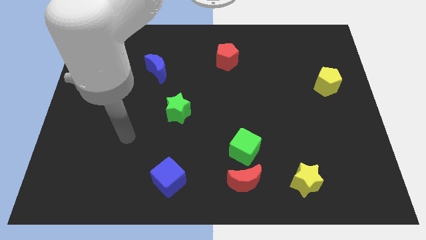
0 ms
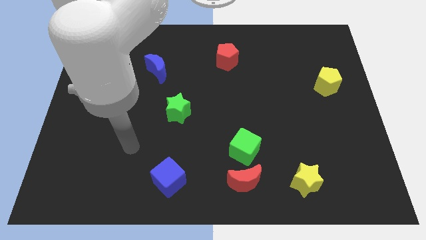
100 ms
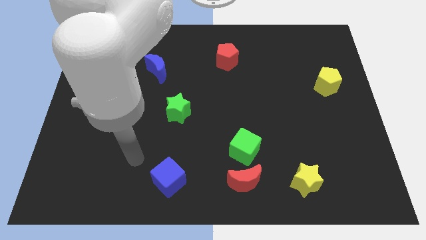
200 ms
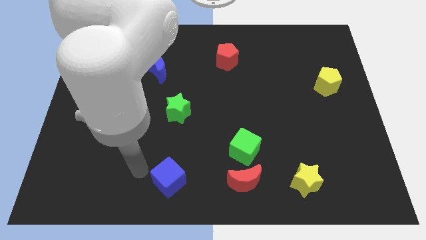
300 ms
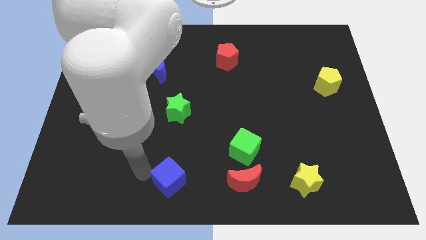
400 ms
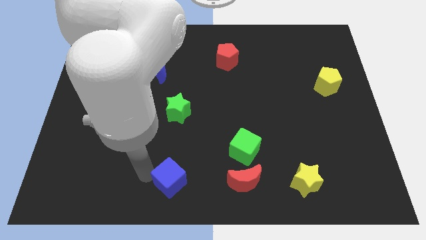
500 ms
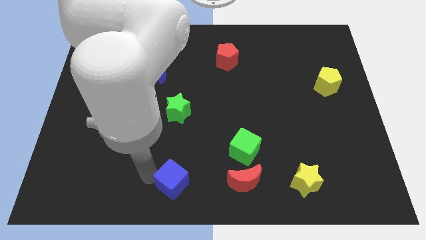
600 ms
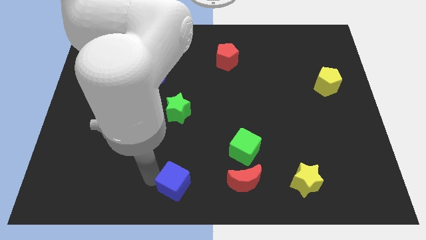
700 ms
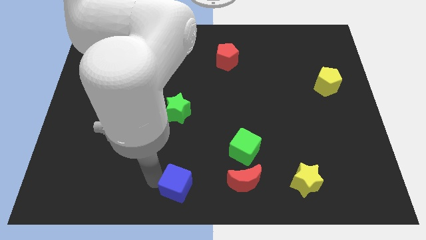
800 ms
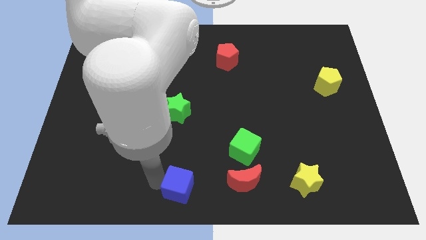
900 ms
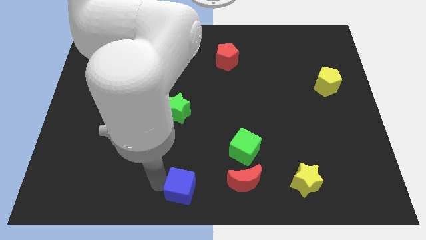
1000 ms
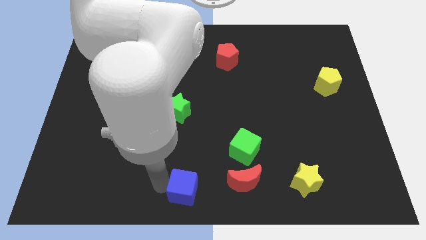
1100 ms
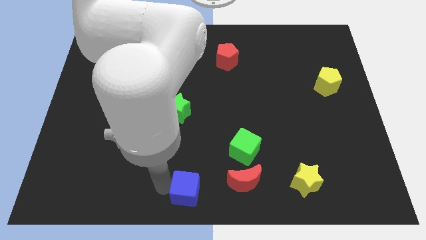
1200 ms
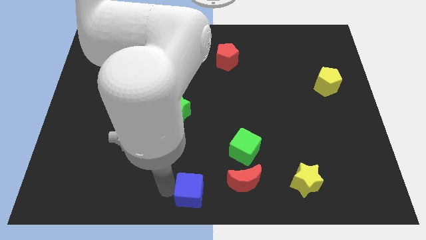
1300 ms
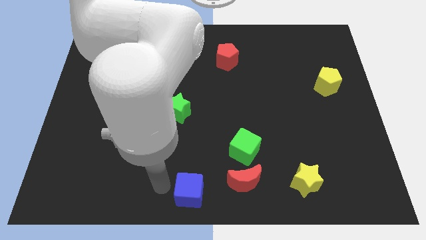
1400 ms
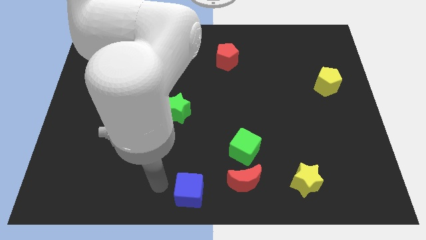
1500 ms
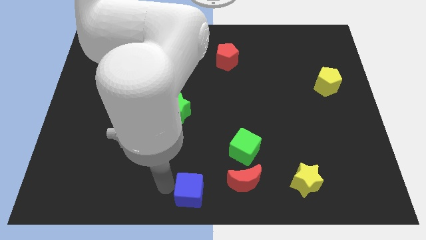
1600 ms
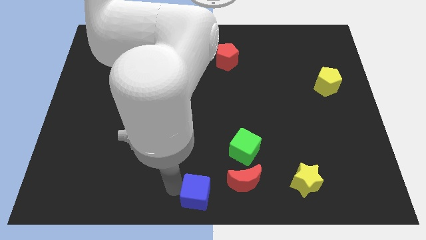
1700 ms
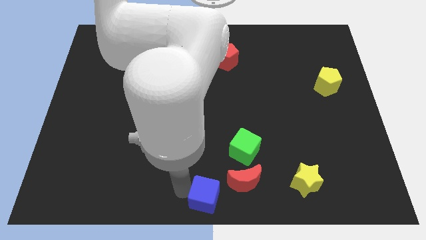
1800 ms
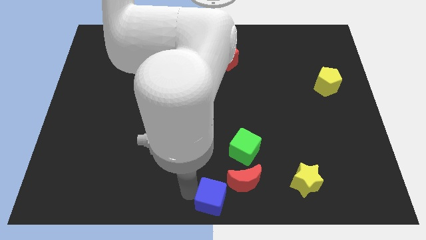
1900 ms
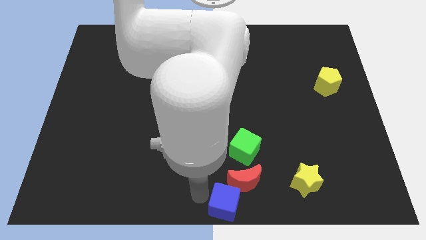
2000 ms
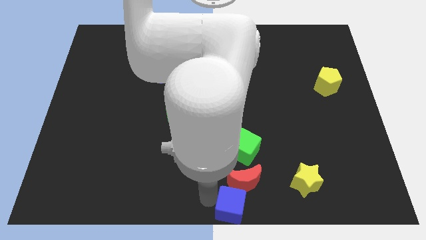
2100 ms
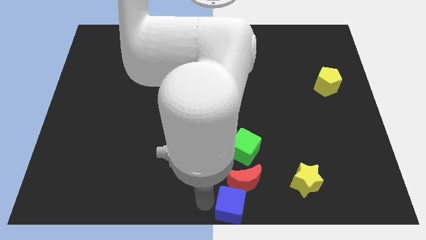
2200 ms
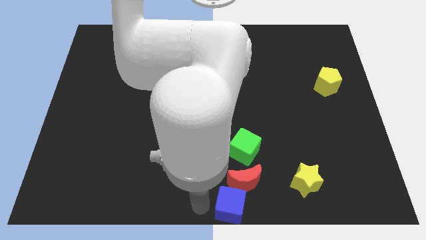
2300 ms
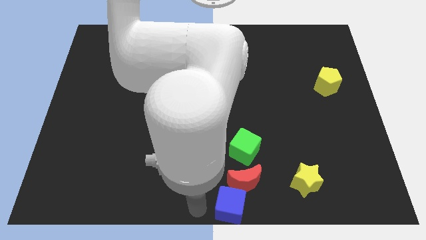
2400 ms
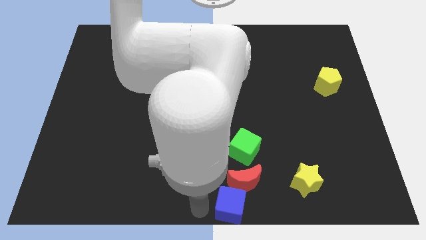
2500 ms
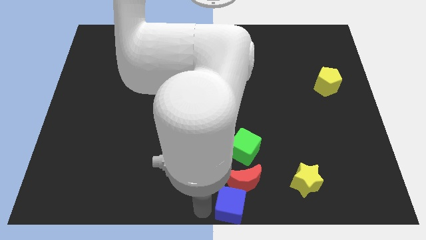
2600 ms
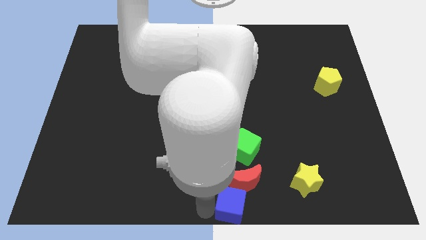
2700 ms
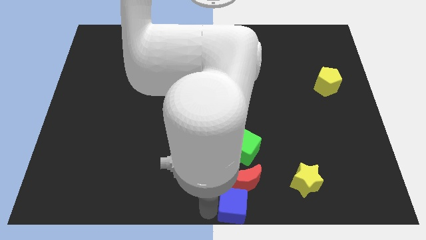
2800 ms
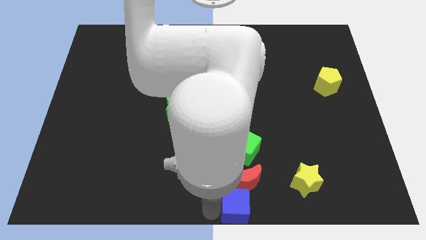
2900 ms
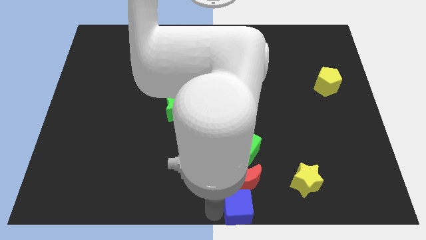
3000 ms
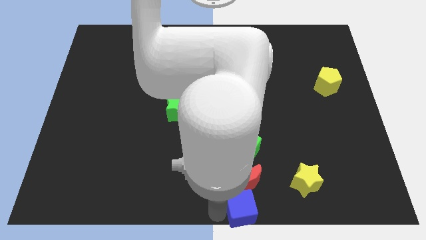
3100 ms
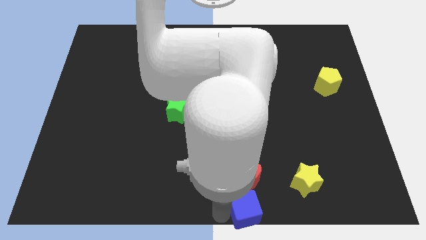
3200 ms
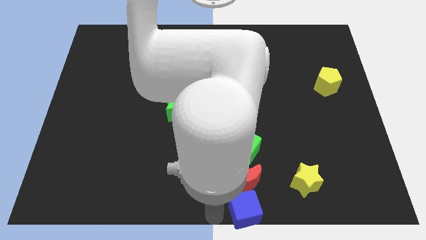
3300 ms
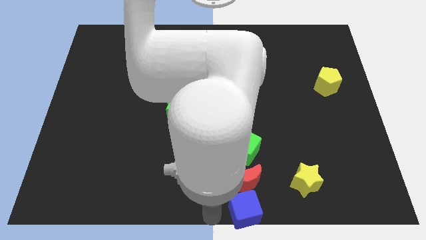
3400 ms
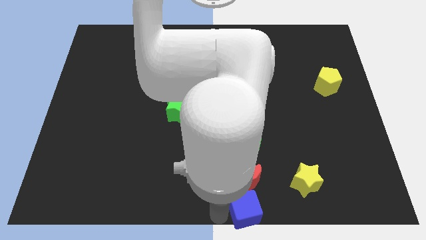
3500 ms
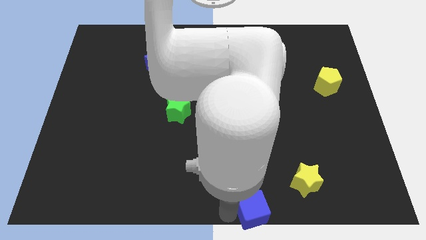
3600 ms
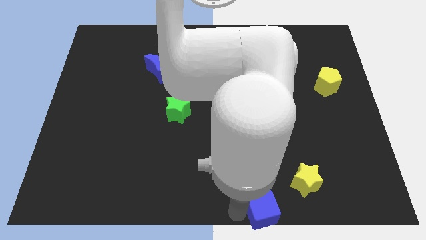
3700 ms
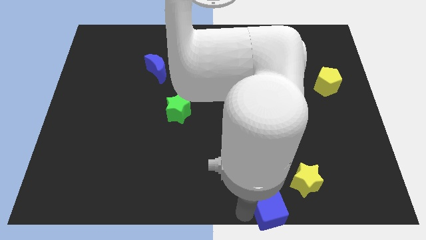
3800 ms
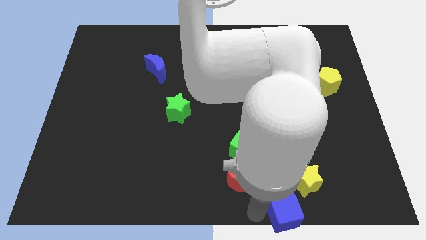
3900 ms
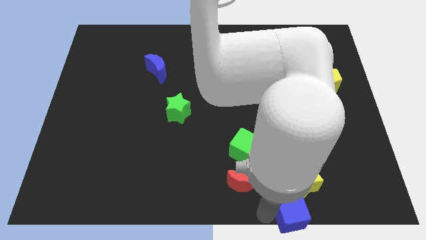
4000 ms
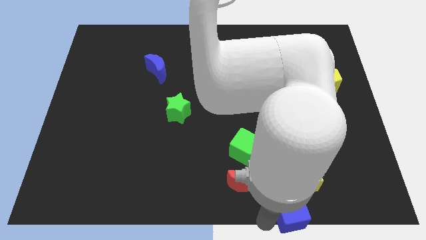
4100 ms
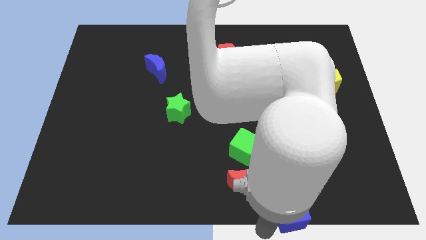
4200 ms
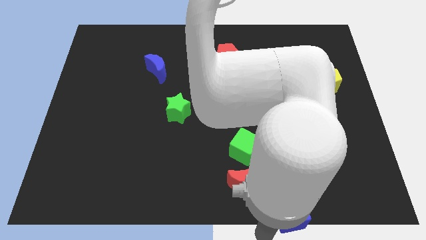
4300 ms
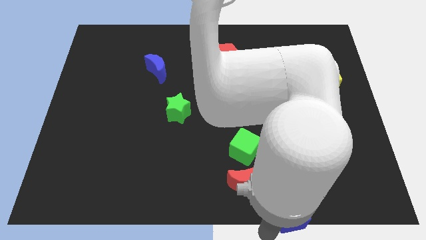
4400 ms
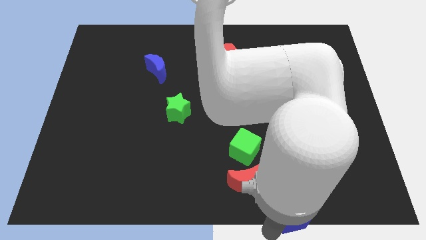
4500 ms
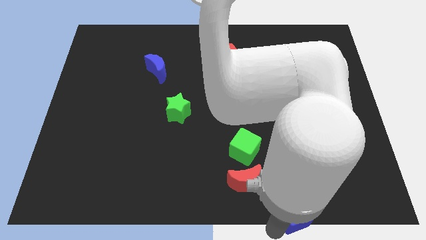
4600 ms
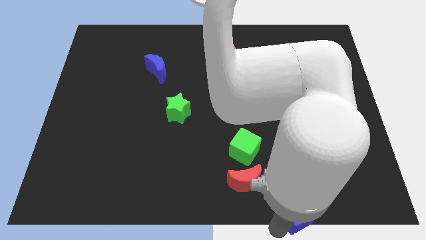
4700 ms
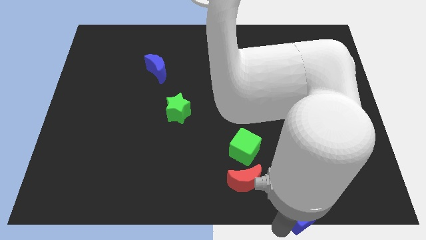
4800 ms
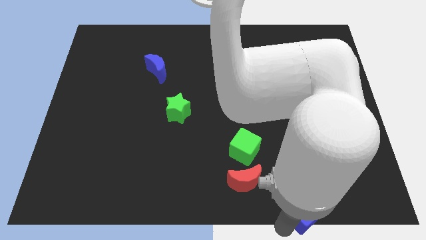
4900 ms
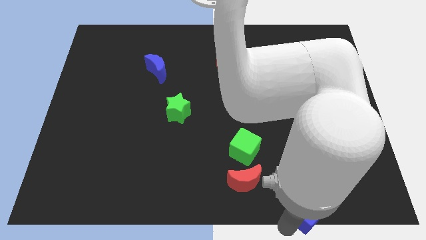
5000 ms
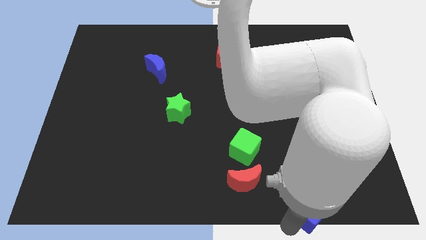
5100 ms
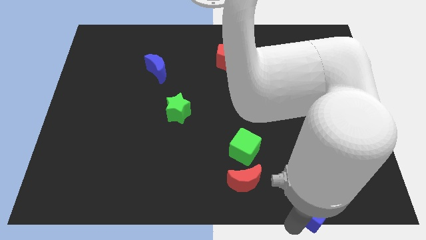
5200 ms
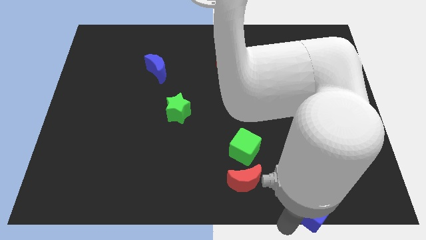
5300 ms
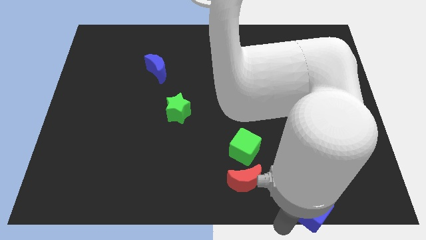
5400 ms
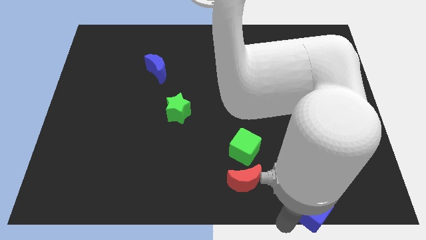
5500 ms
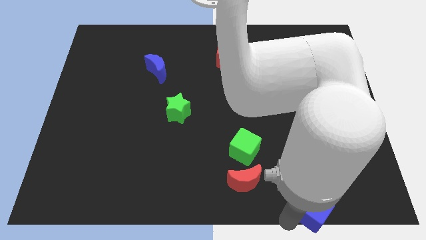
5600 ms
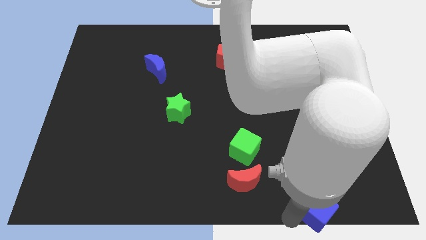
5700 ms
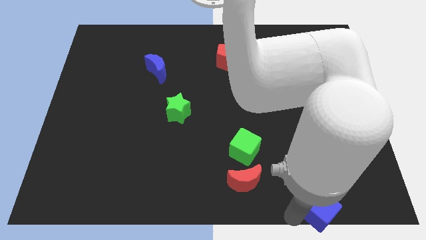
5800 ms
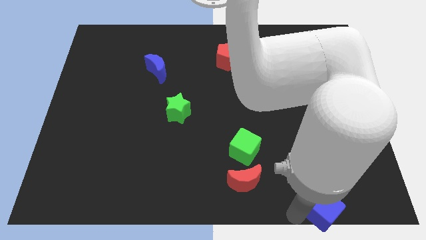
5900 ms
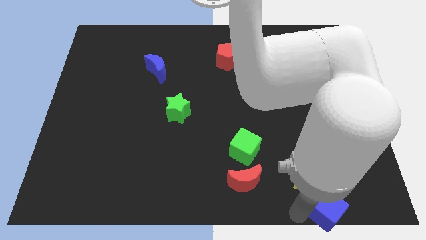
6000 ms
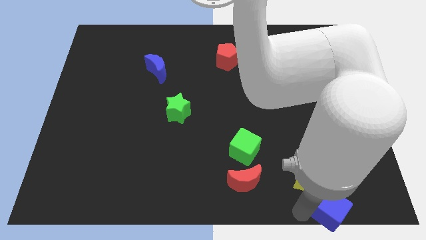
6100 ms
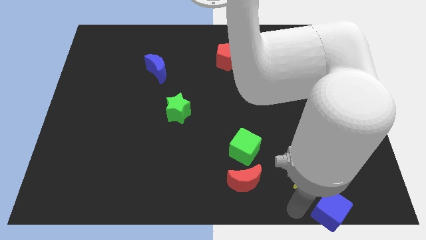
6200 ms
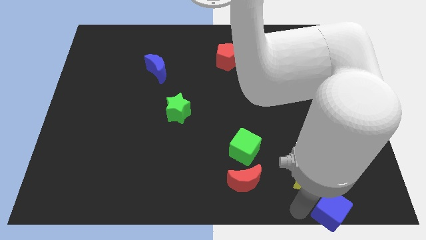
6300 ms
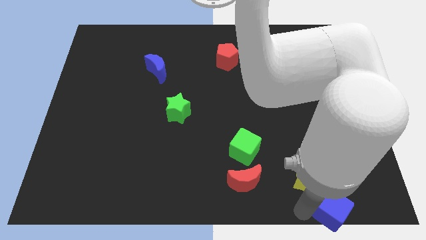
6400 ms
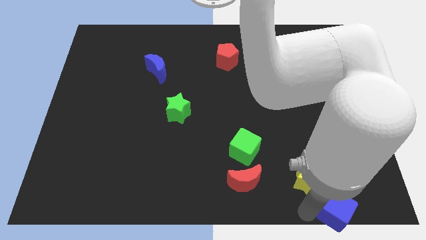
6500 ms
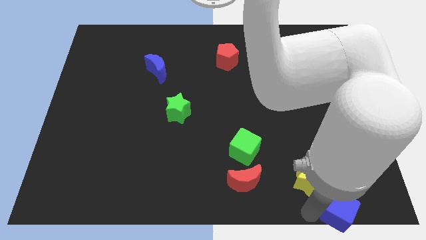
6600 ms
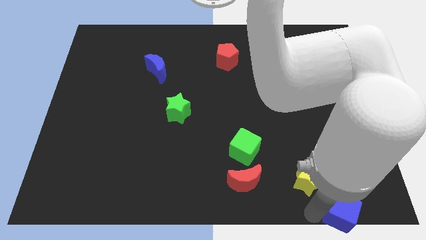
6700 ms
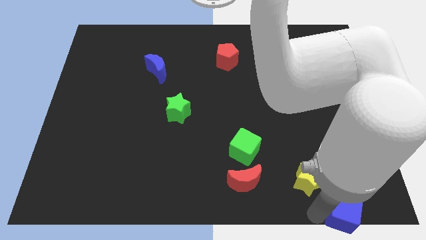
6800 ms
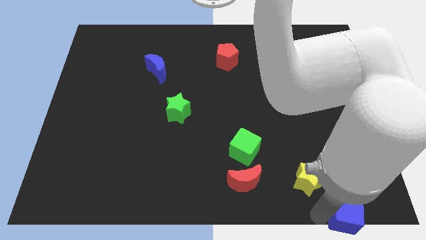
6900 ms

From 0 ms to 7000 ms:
slide the blue cube to the bottom right corner
